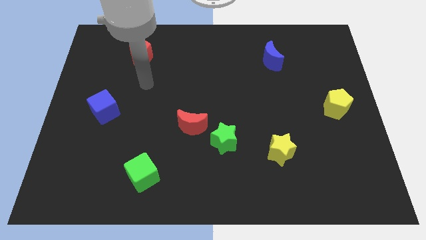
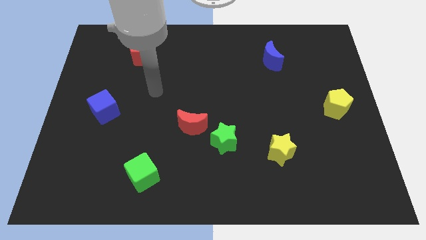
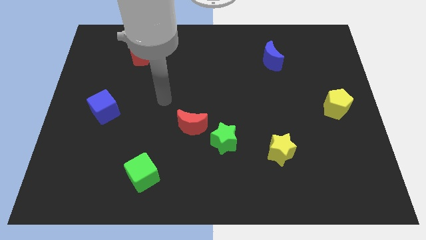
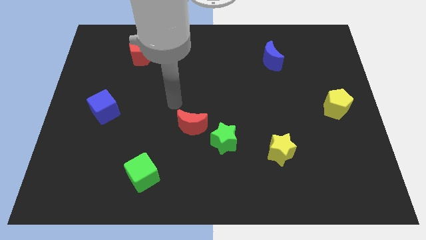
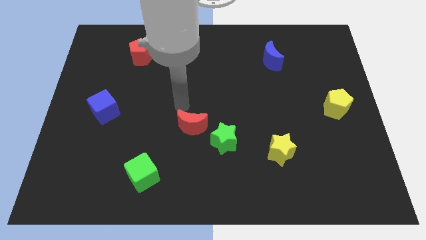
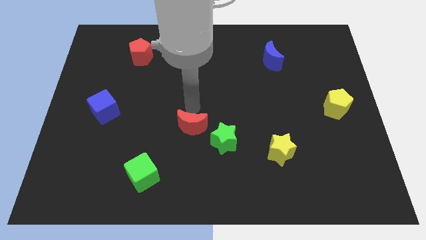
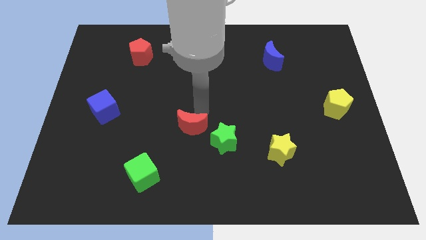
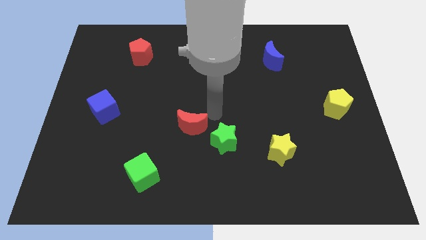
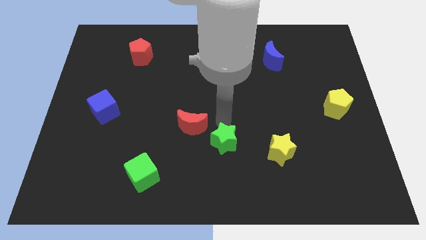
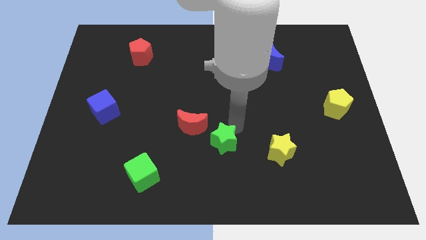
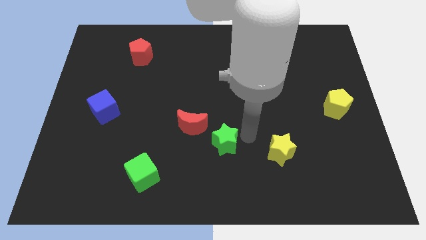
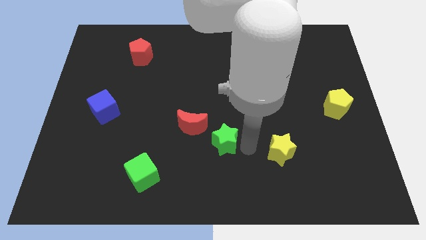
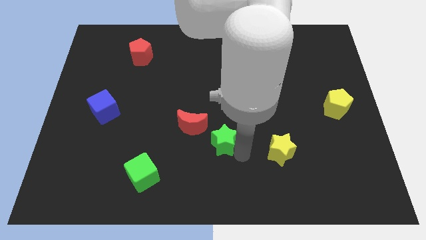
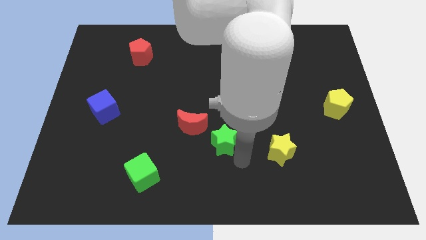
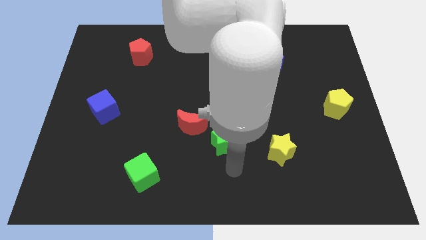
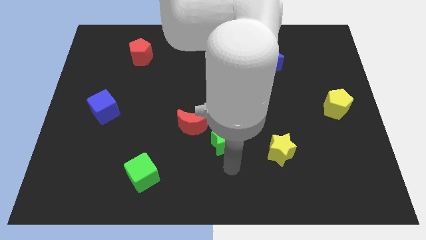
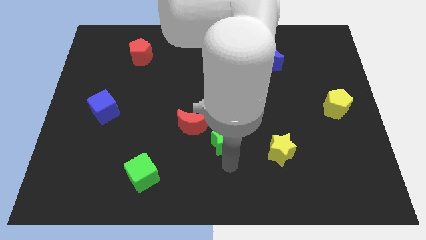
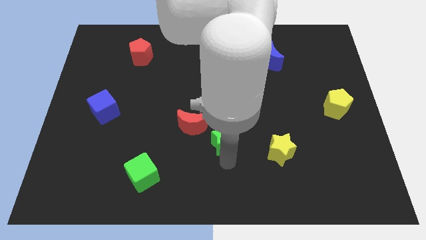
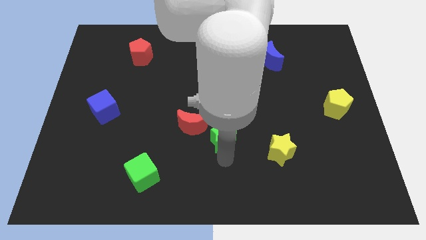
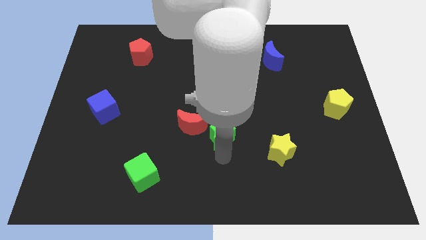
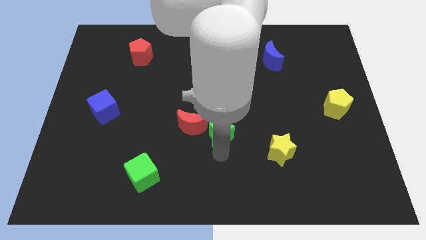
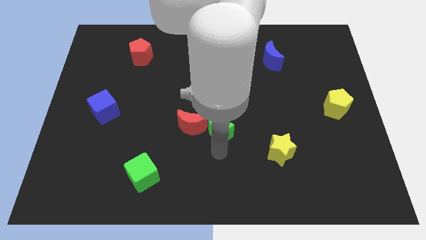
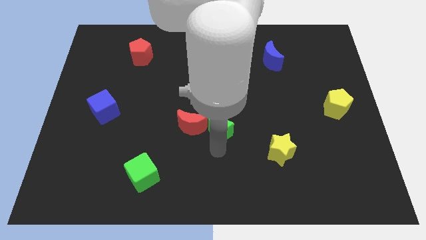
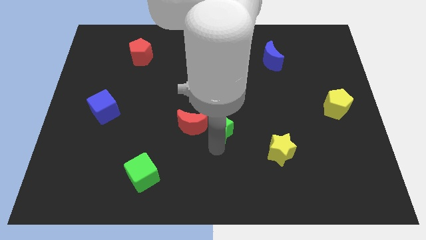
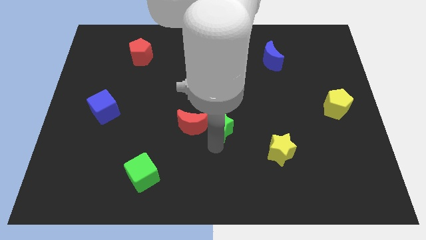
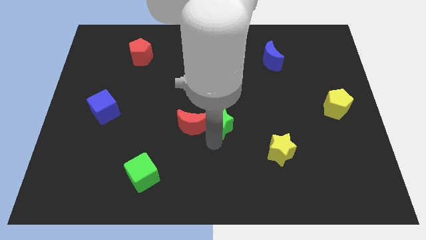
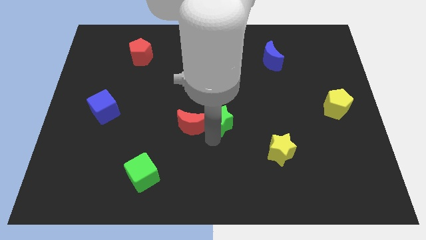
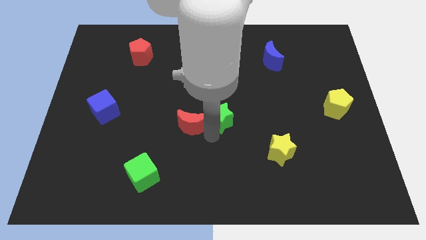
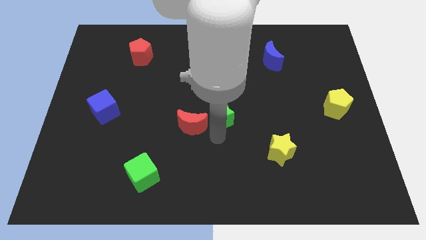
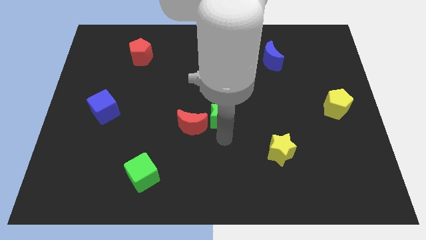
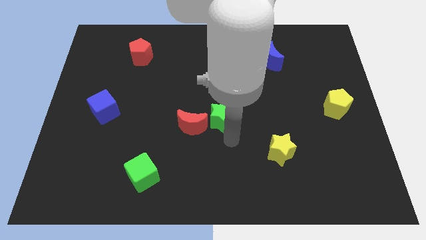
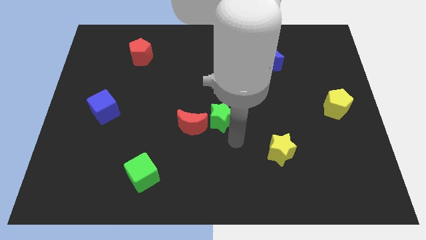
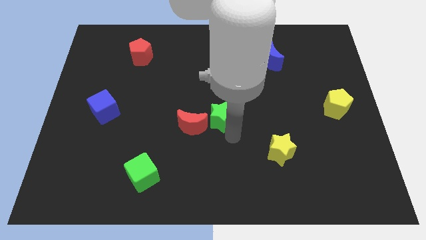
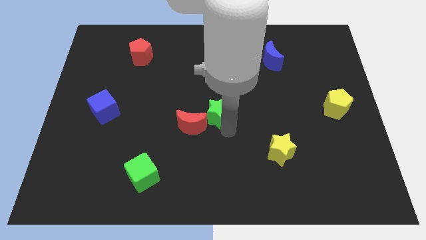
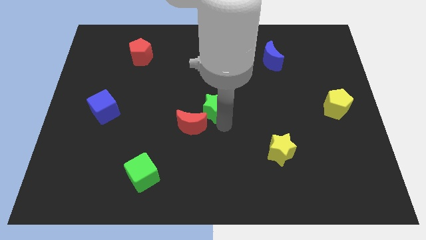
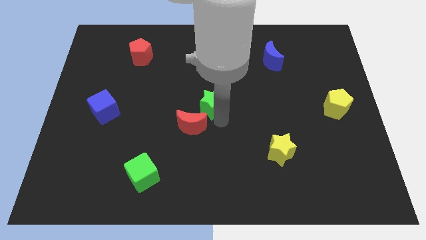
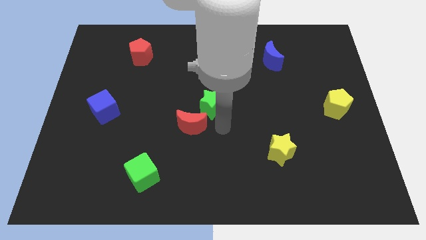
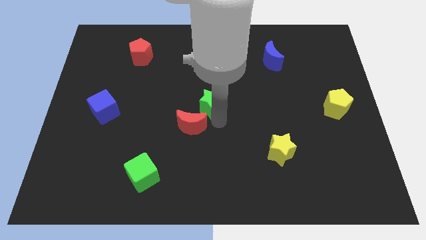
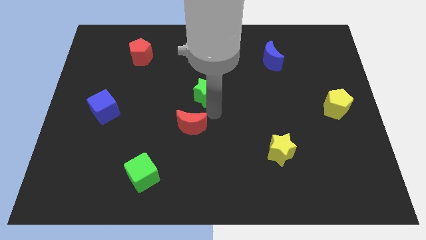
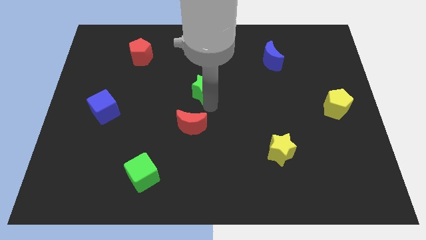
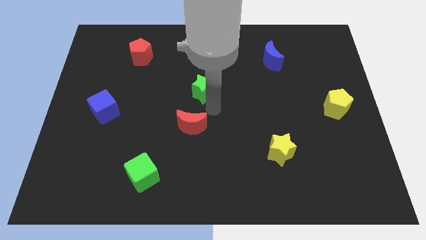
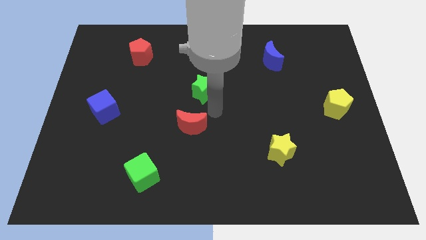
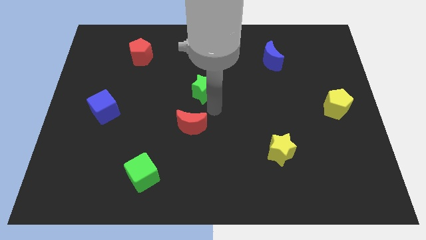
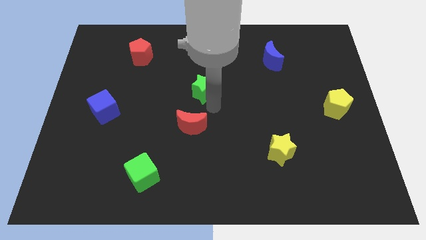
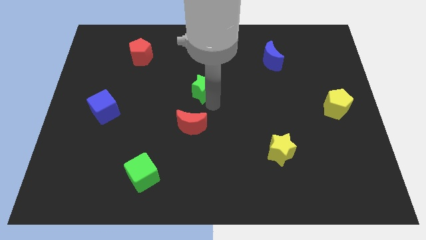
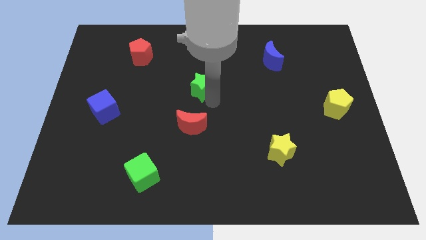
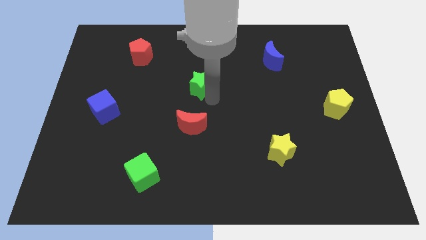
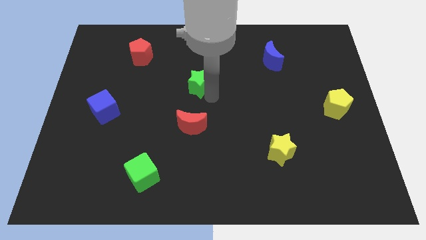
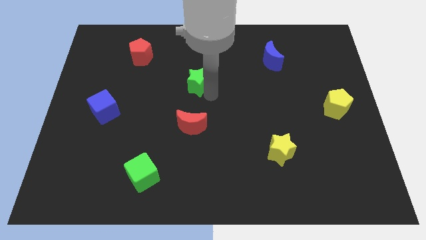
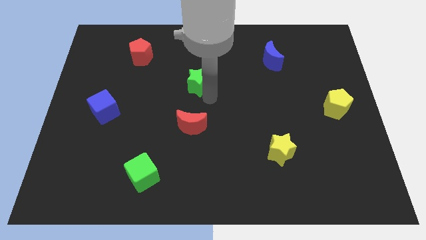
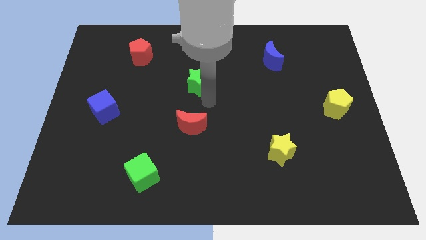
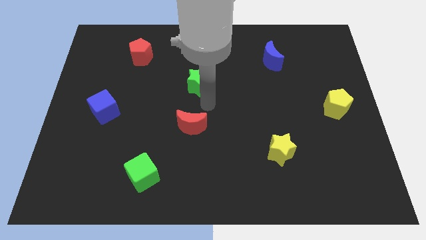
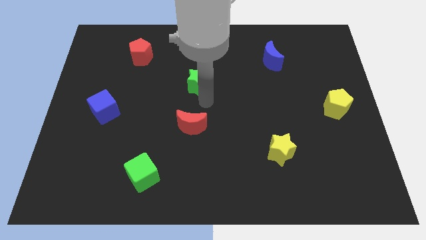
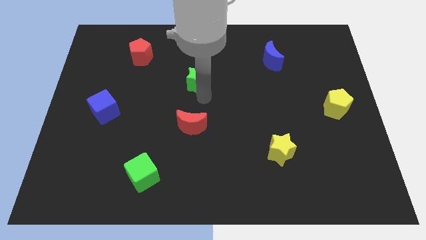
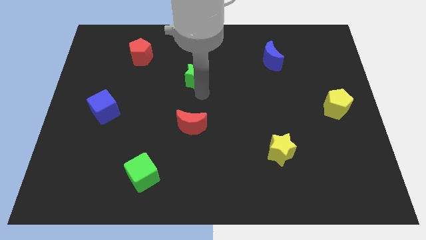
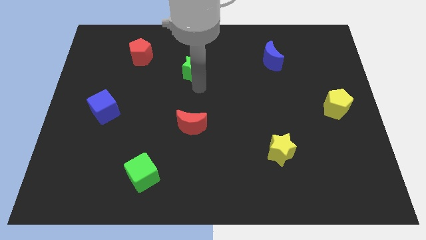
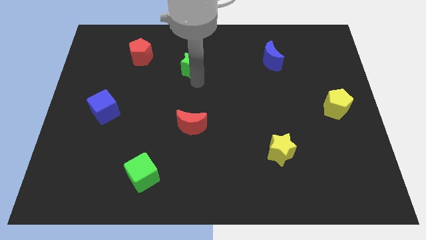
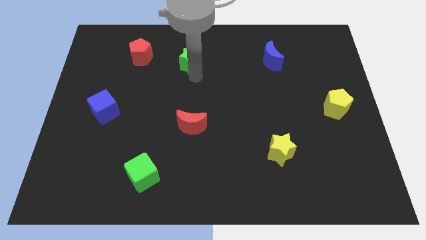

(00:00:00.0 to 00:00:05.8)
put the green star to the right side of the red pentagon
